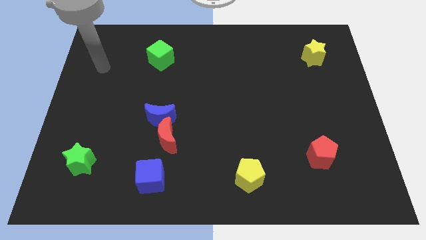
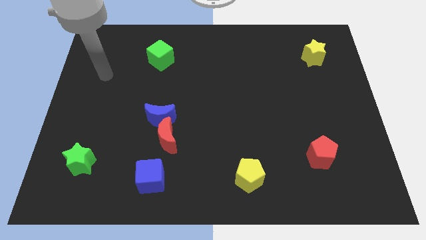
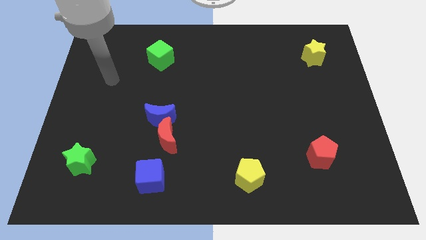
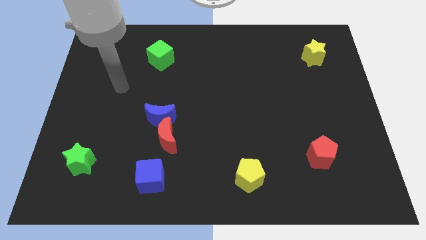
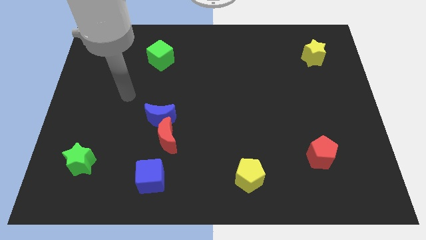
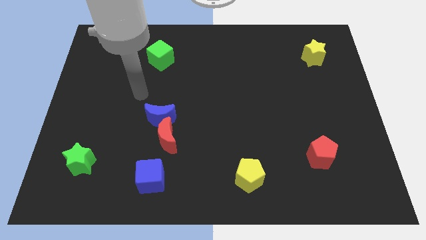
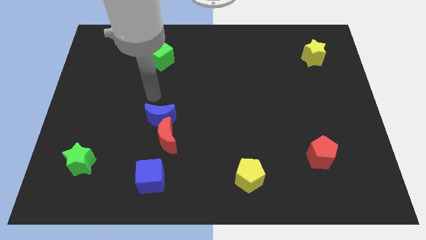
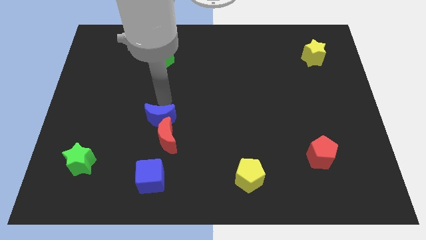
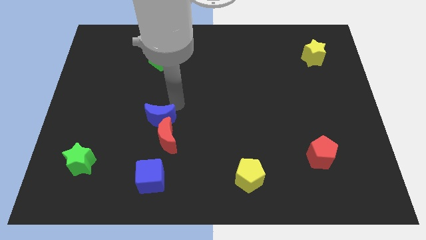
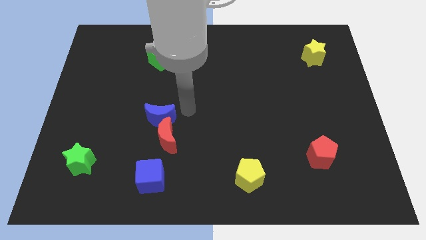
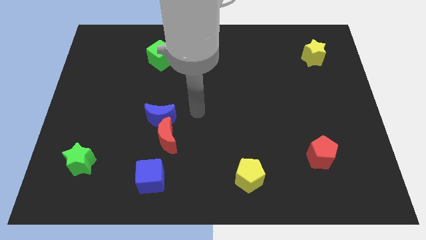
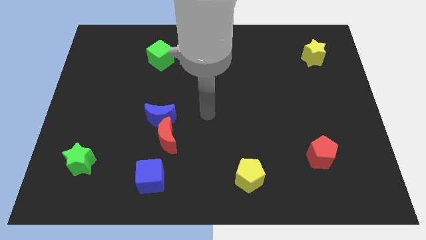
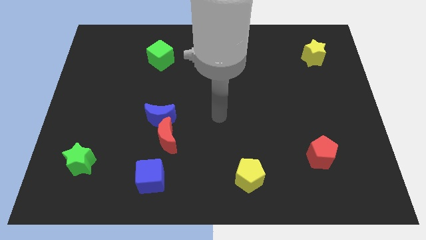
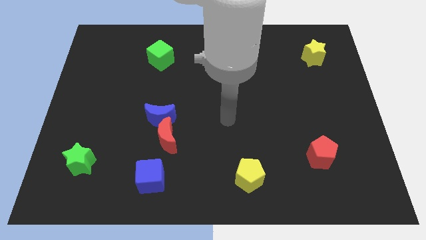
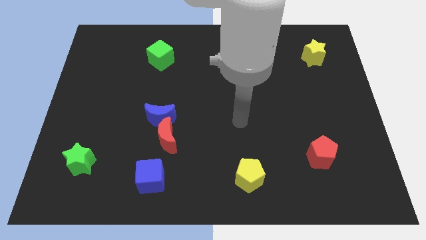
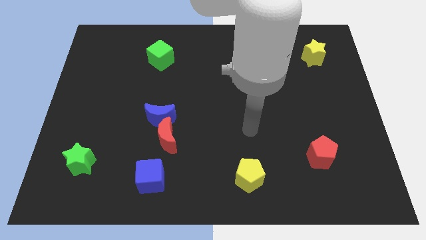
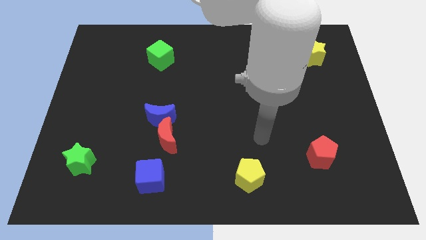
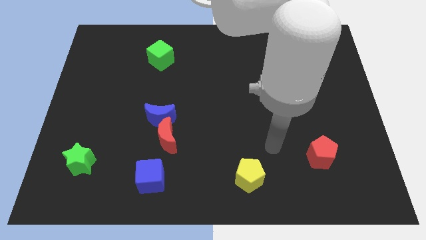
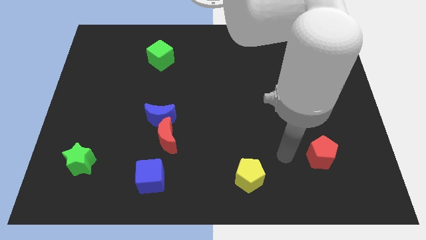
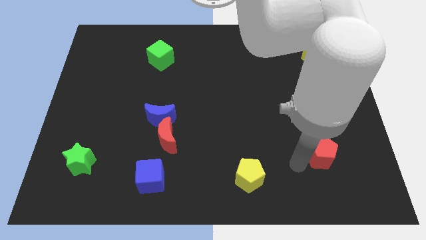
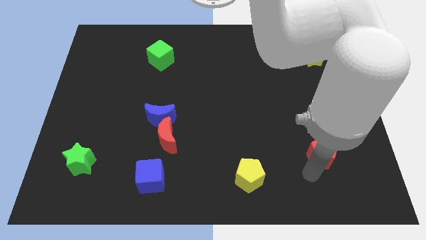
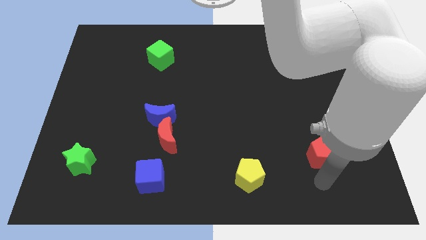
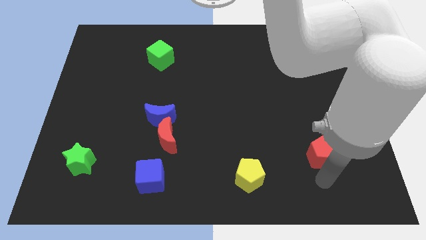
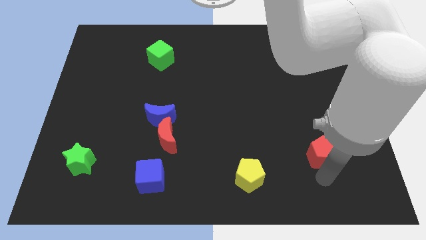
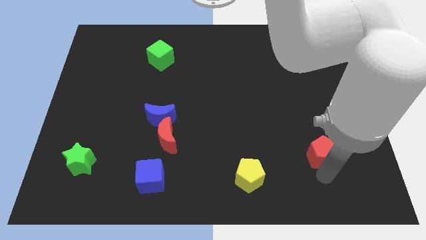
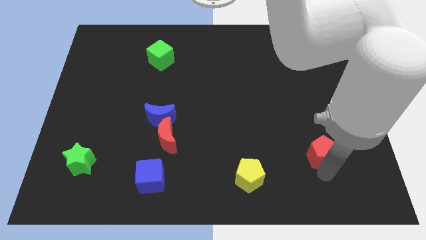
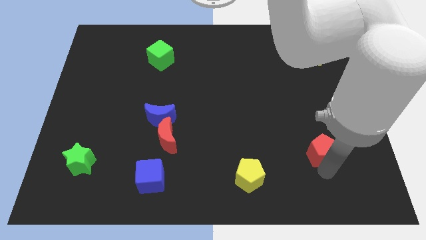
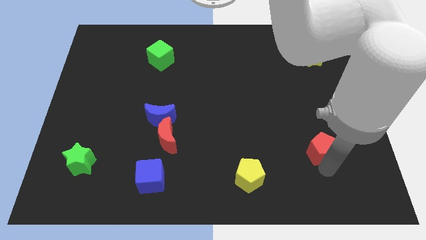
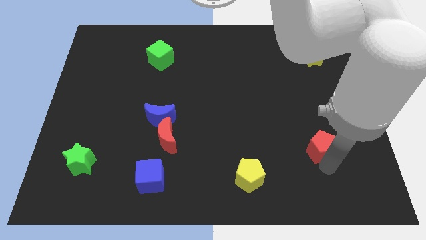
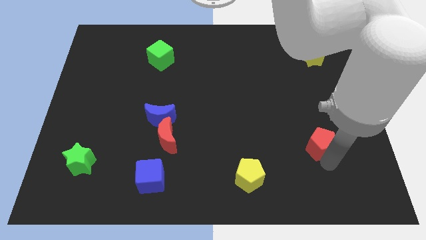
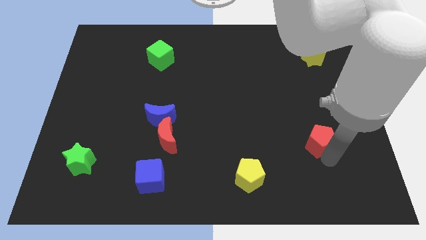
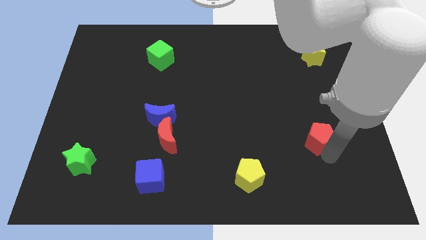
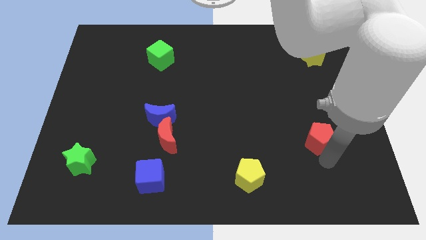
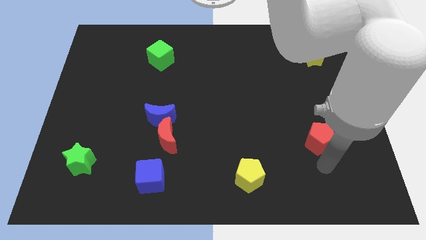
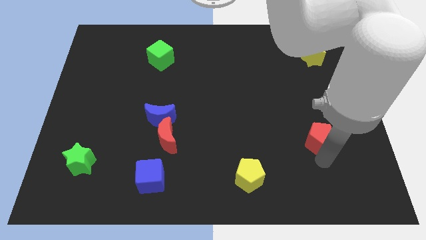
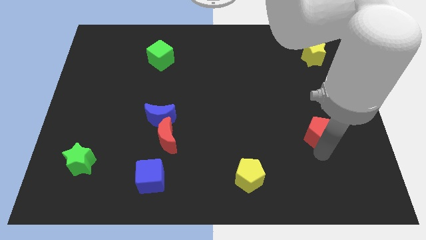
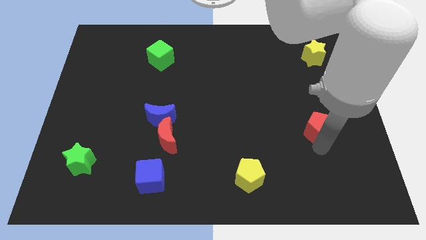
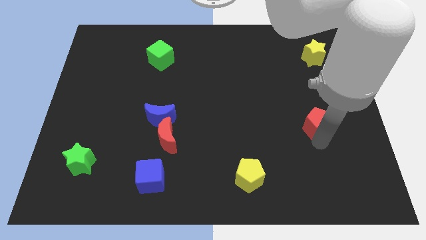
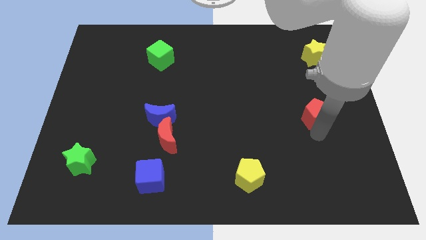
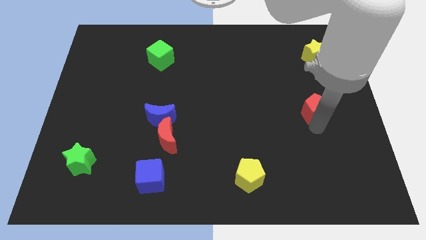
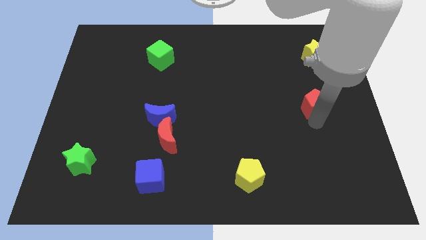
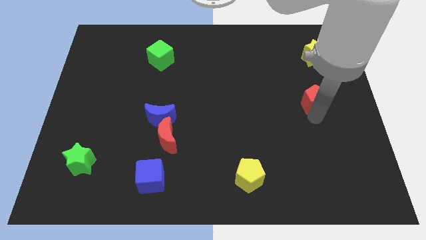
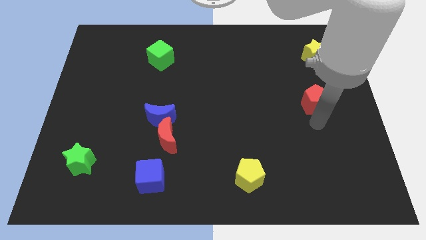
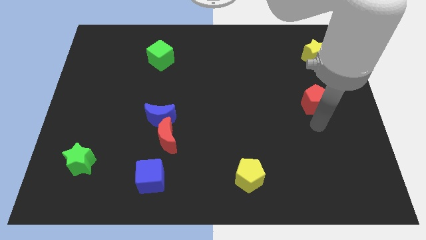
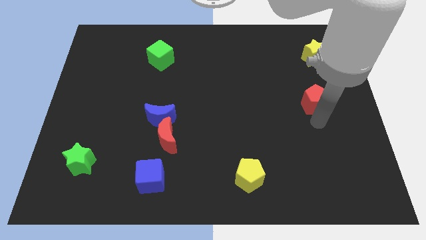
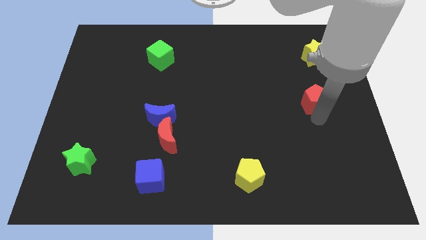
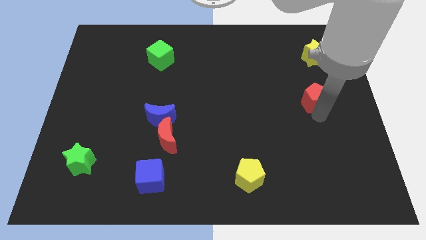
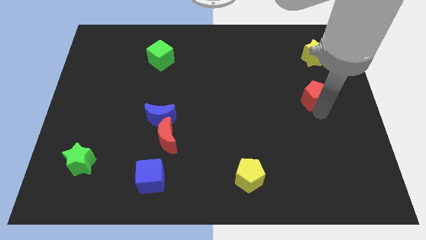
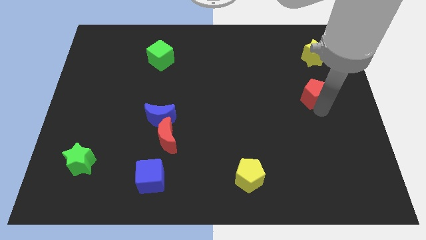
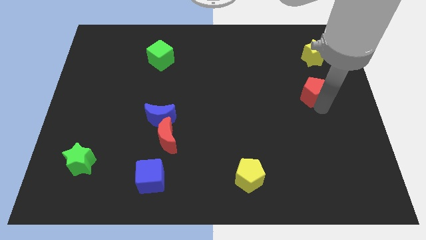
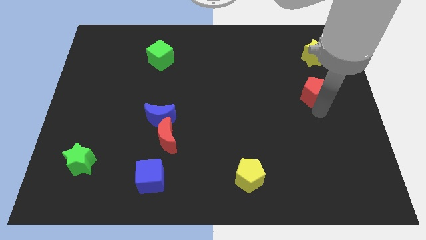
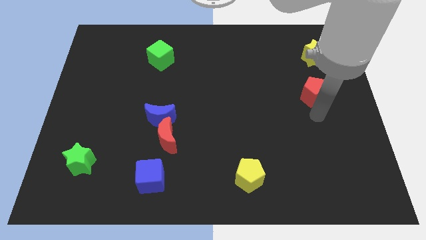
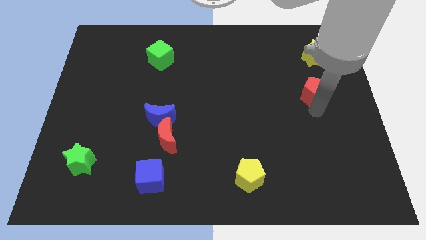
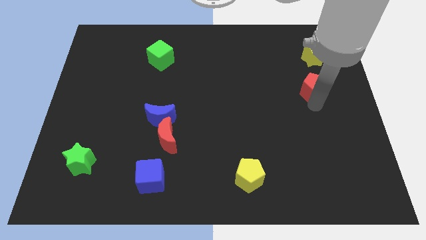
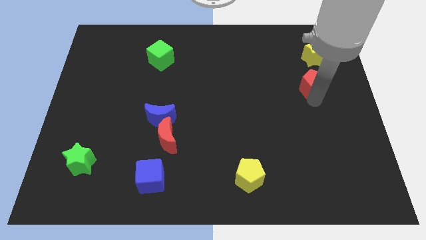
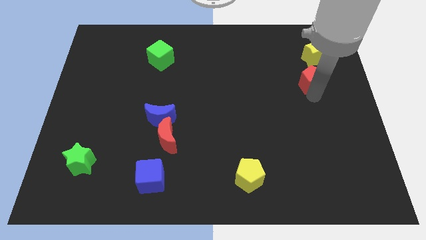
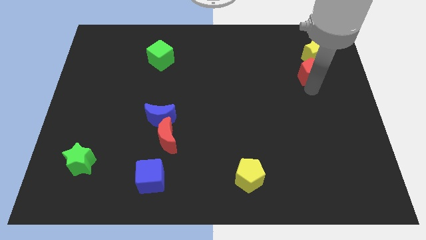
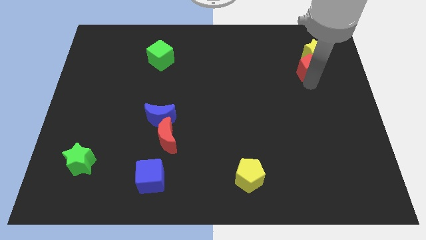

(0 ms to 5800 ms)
put the red pentagon close to the yellow star

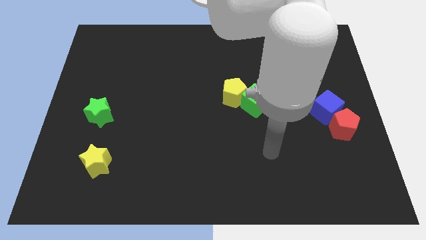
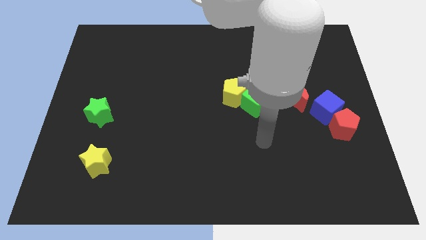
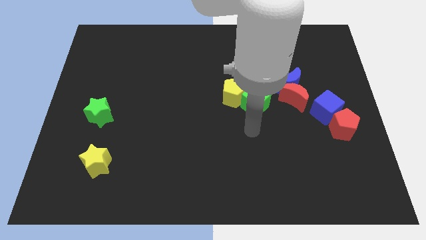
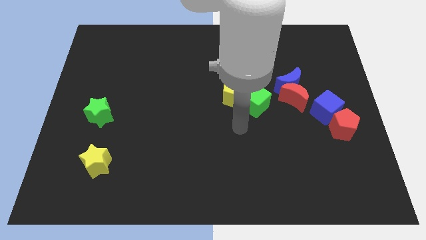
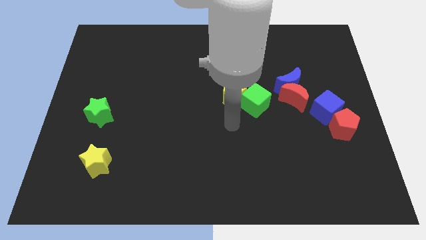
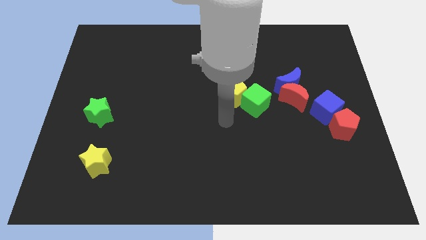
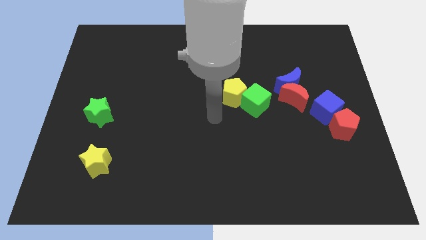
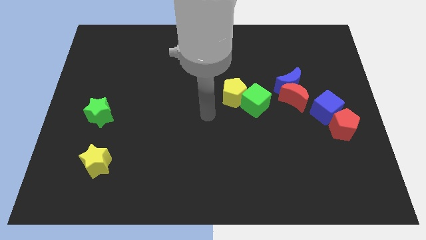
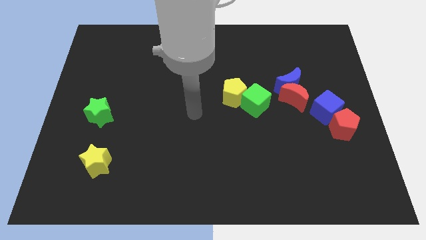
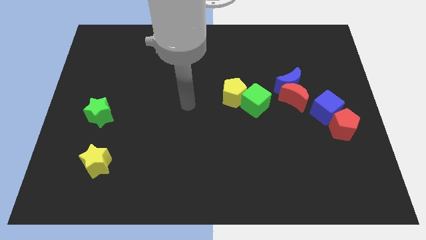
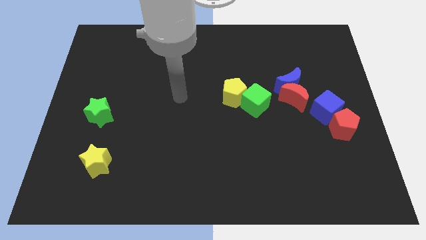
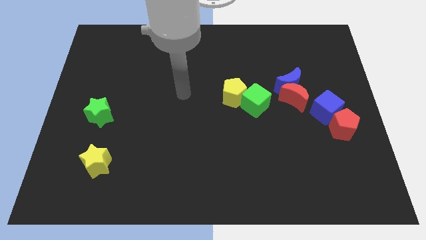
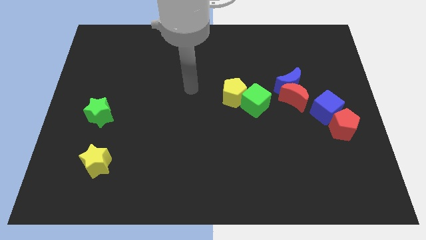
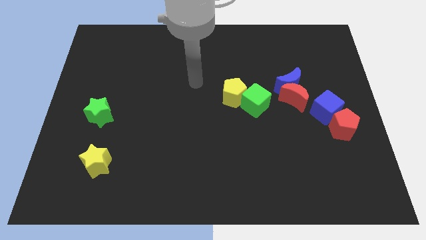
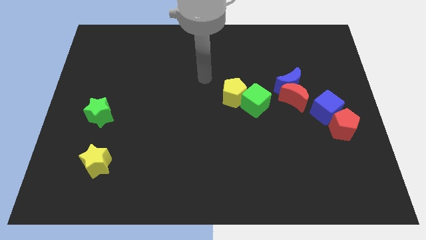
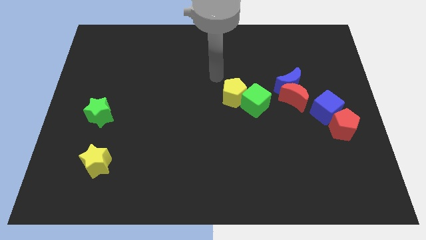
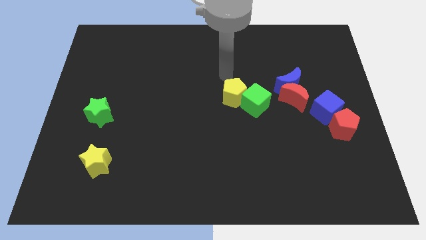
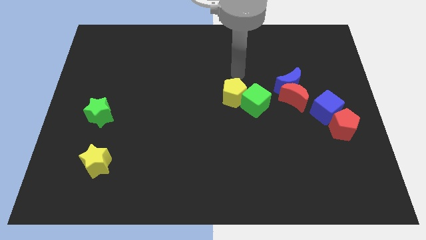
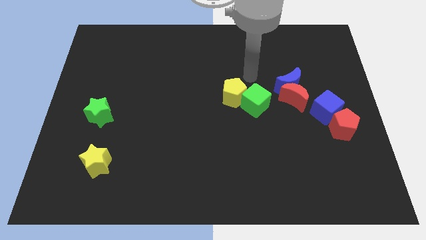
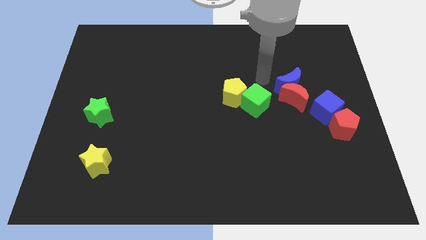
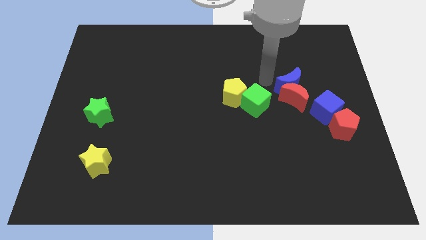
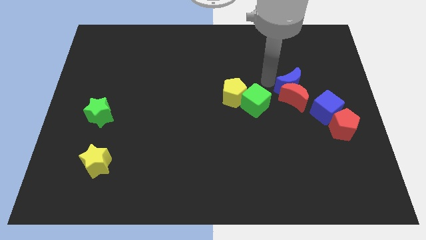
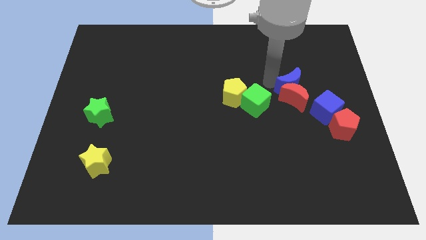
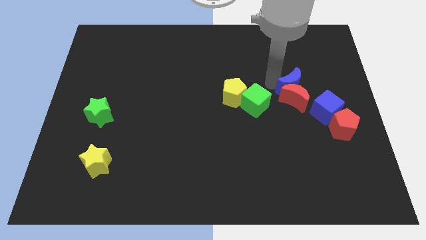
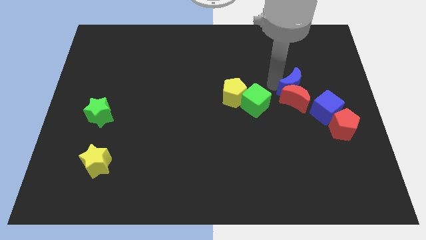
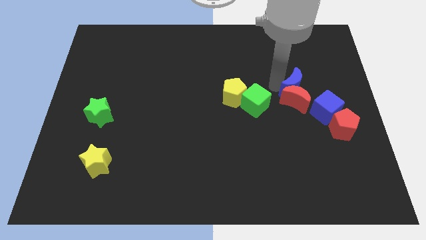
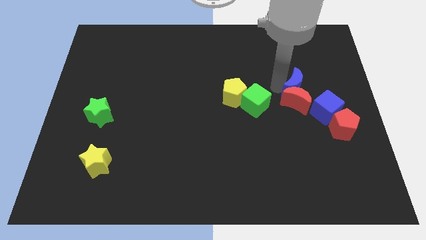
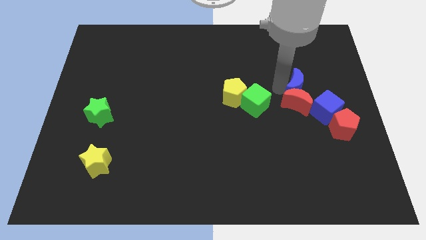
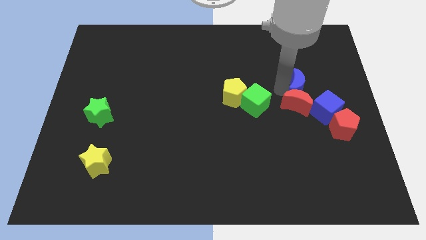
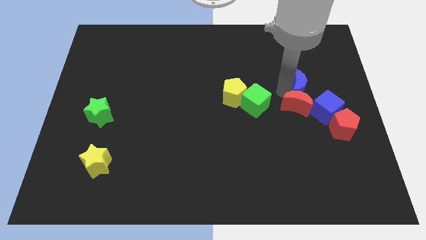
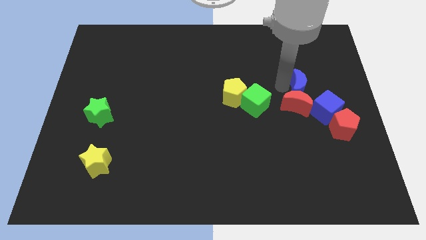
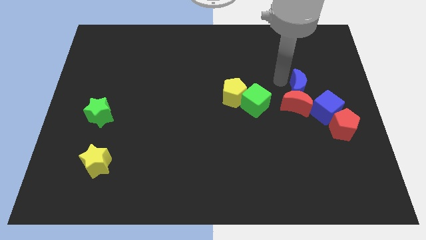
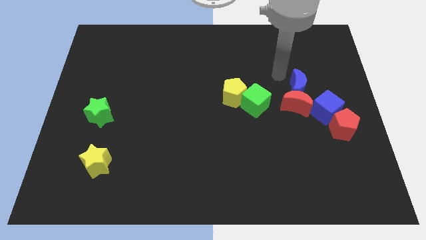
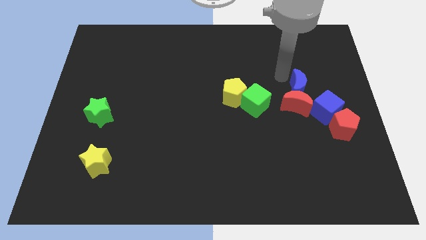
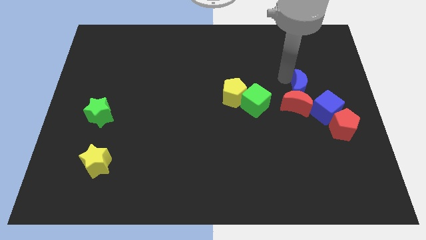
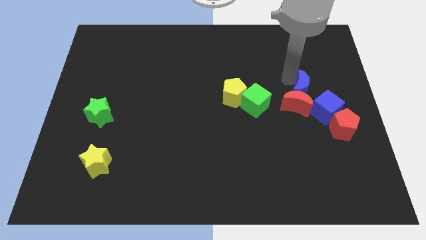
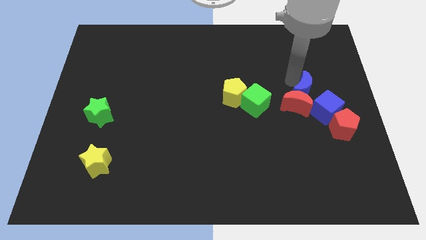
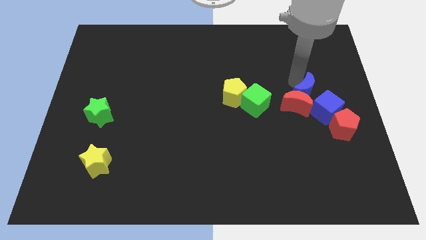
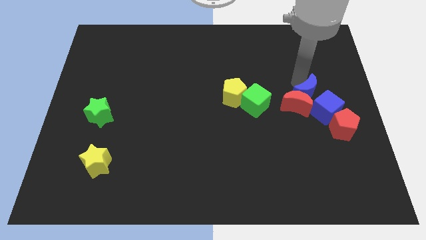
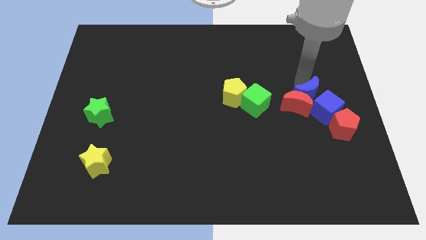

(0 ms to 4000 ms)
push the blue moon next to the blue cube
